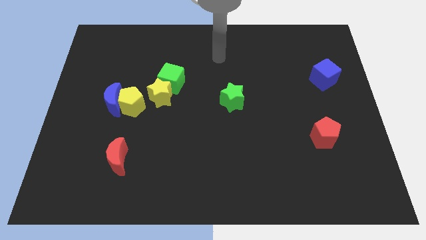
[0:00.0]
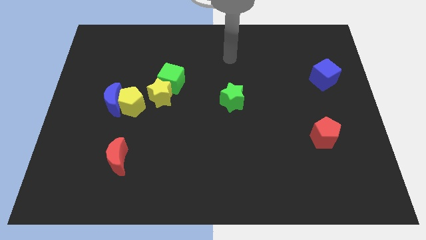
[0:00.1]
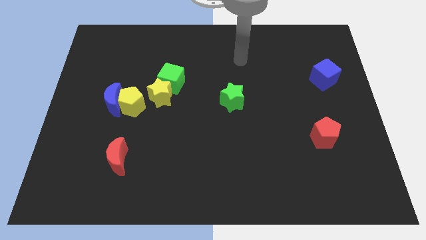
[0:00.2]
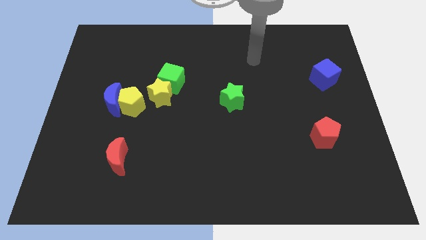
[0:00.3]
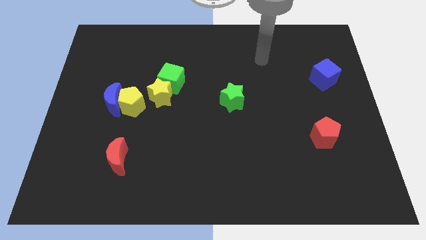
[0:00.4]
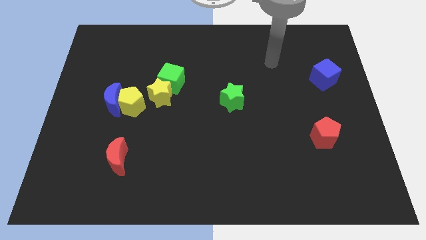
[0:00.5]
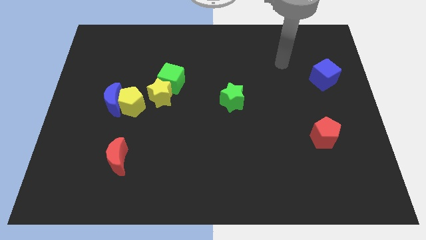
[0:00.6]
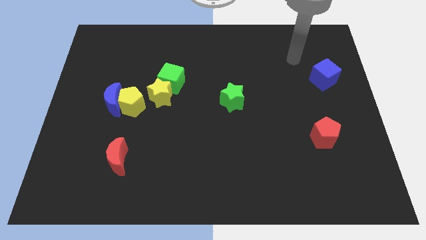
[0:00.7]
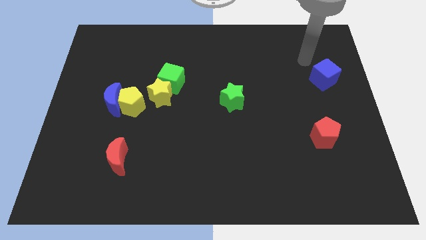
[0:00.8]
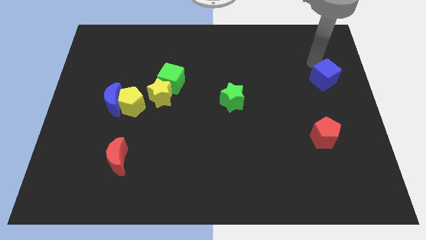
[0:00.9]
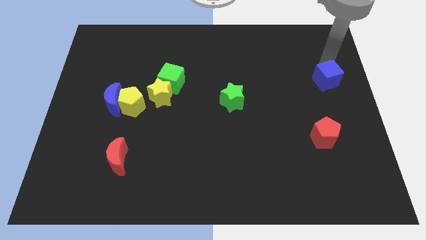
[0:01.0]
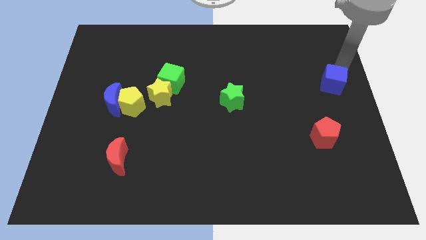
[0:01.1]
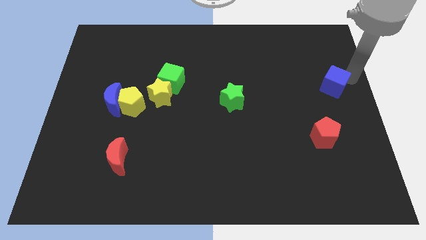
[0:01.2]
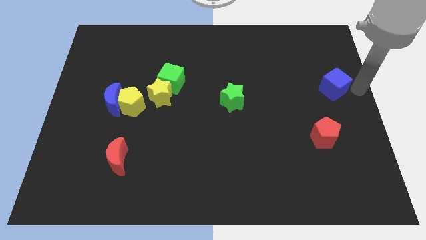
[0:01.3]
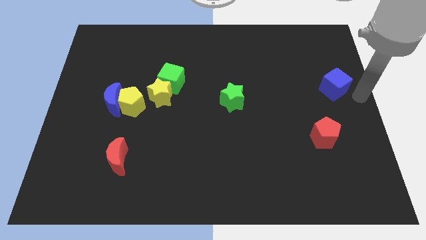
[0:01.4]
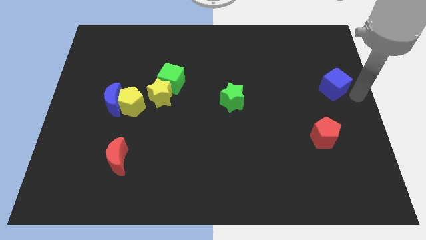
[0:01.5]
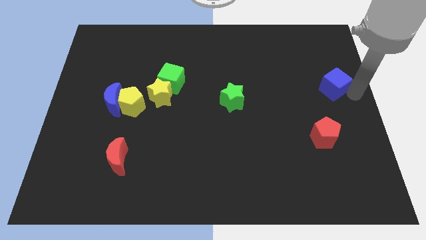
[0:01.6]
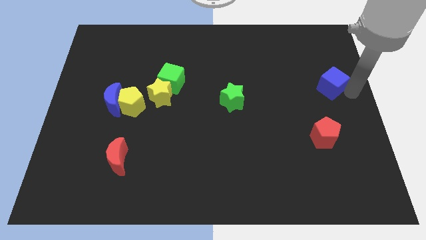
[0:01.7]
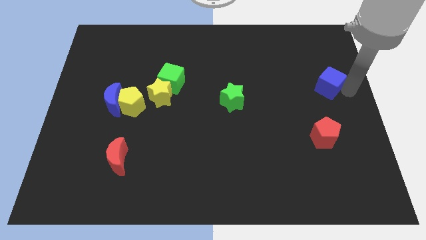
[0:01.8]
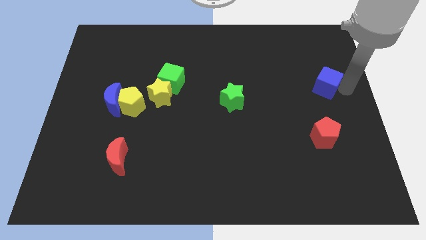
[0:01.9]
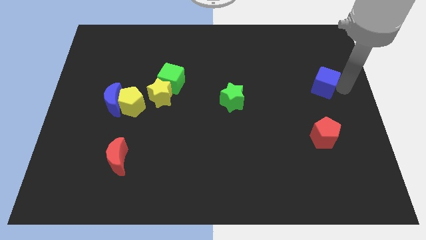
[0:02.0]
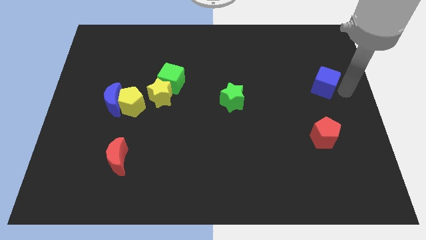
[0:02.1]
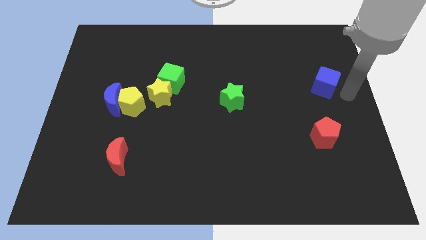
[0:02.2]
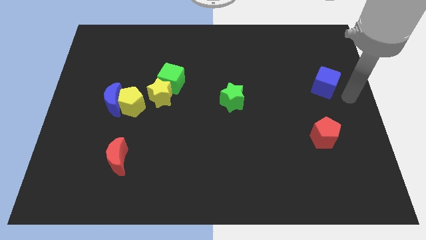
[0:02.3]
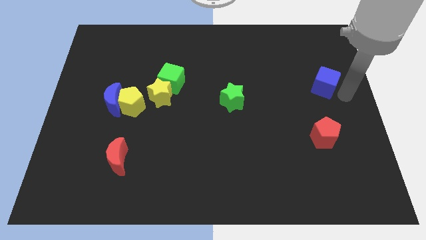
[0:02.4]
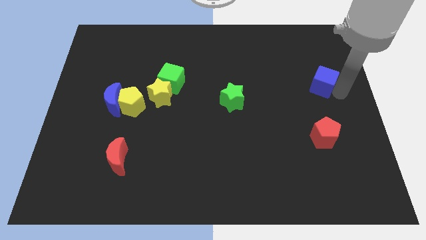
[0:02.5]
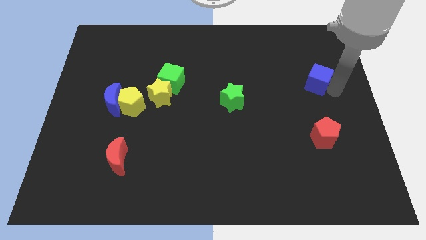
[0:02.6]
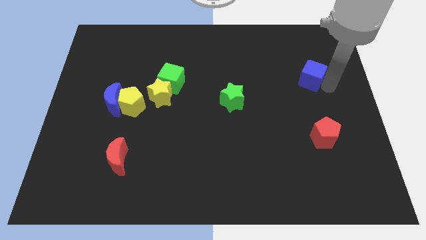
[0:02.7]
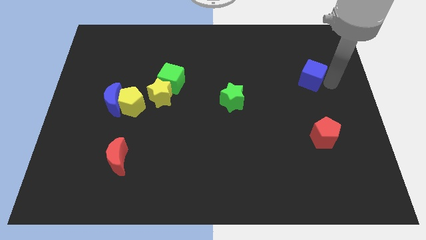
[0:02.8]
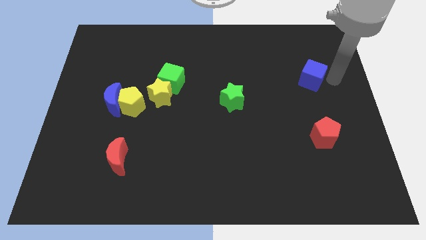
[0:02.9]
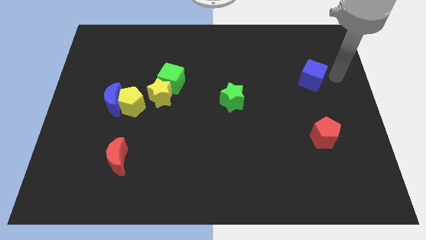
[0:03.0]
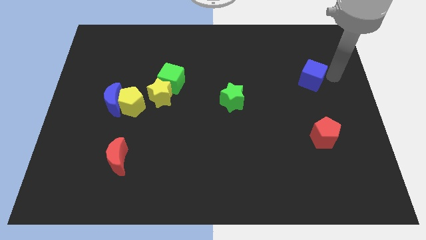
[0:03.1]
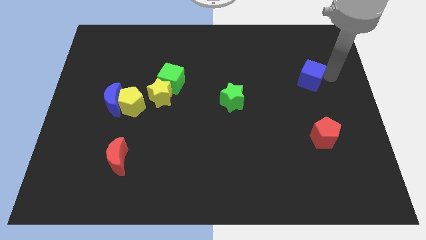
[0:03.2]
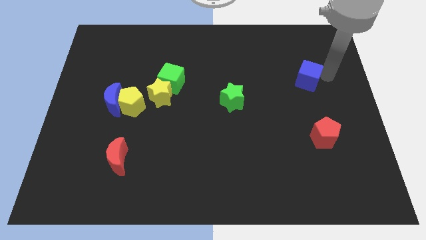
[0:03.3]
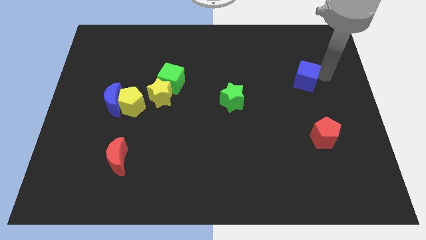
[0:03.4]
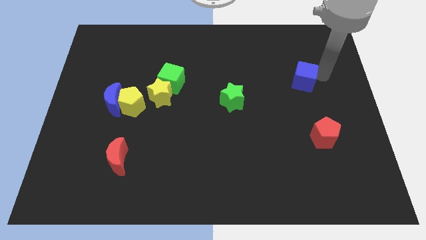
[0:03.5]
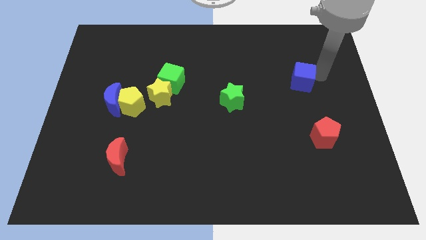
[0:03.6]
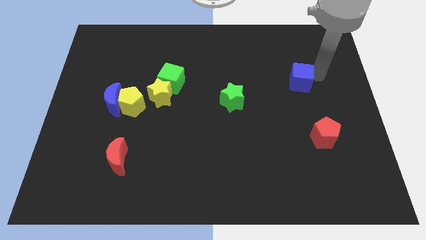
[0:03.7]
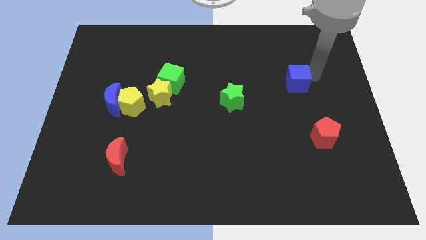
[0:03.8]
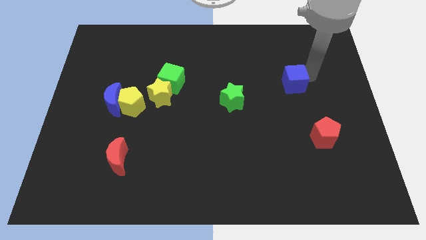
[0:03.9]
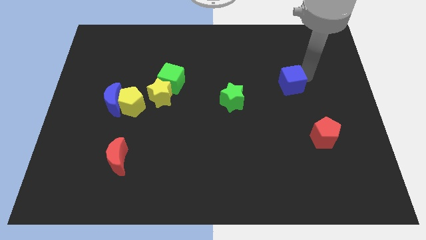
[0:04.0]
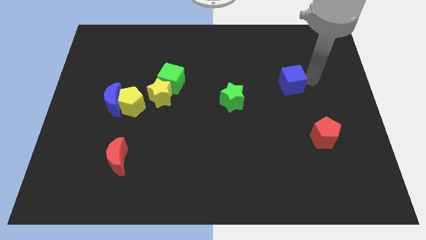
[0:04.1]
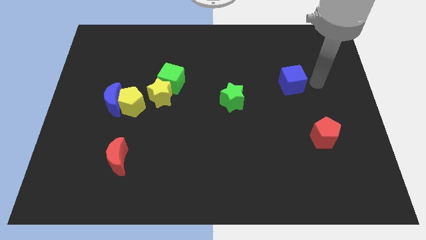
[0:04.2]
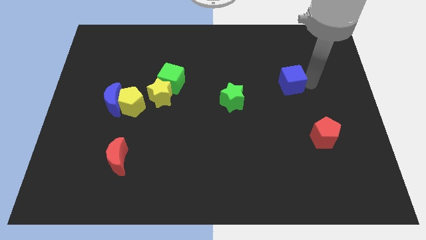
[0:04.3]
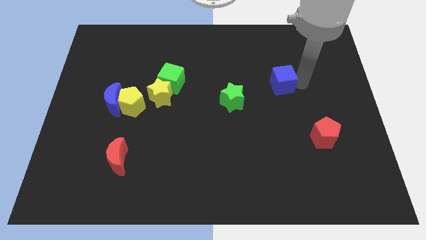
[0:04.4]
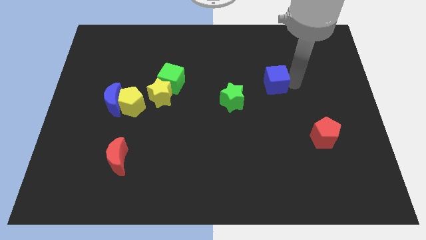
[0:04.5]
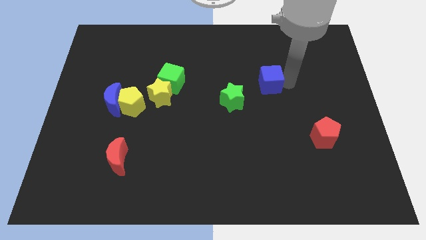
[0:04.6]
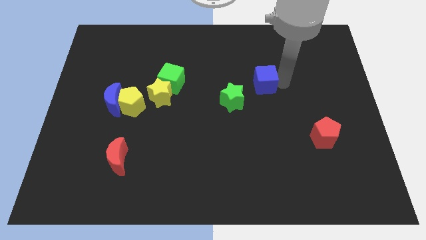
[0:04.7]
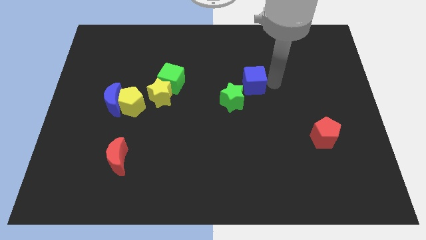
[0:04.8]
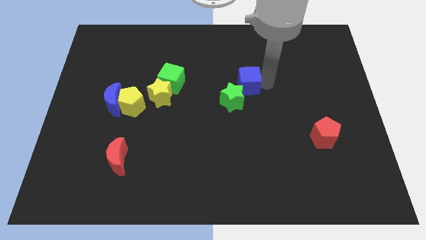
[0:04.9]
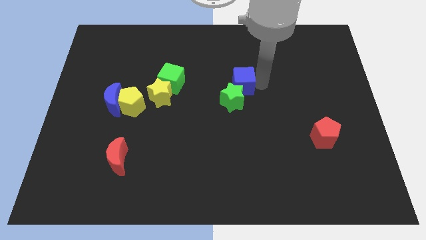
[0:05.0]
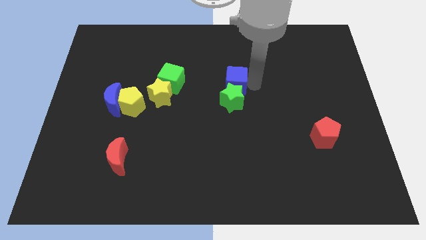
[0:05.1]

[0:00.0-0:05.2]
slide the blue cube right of the green cube

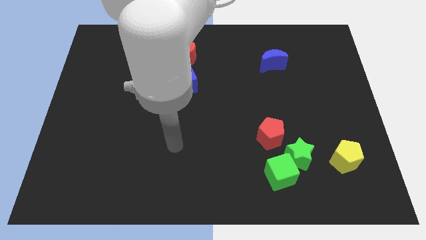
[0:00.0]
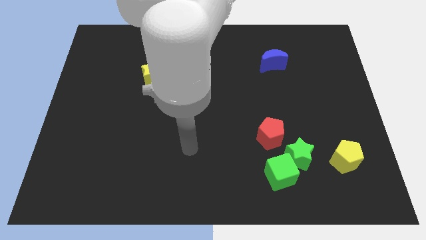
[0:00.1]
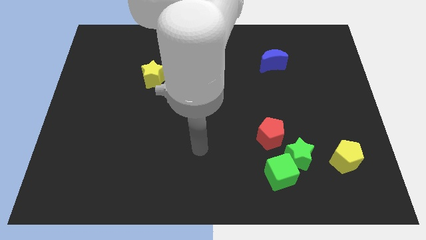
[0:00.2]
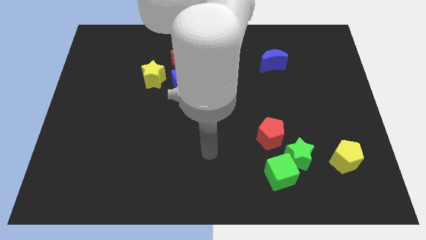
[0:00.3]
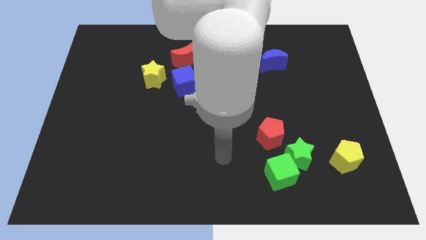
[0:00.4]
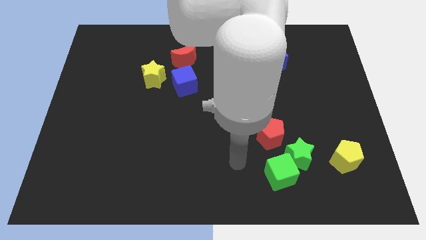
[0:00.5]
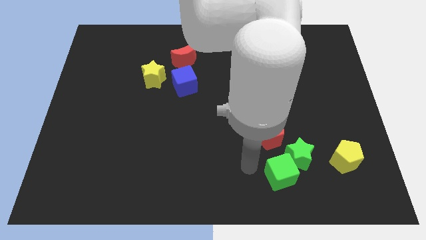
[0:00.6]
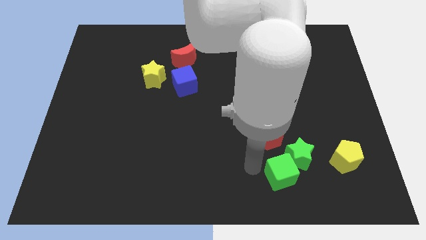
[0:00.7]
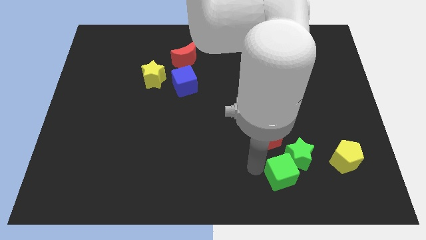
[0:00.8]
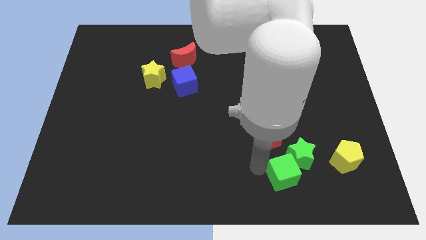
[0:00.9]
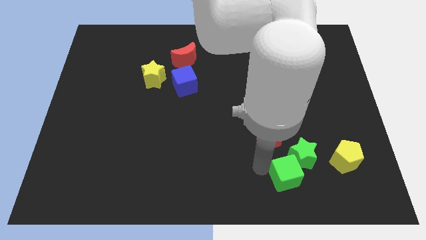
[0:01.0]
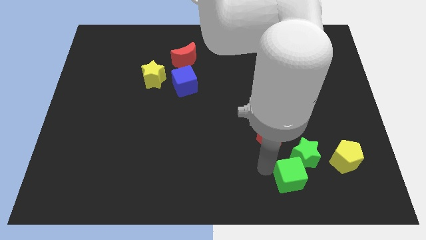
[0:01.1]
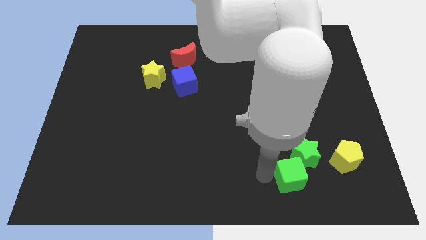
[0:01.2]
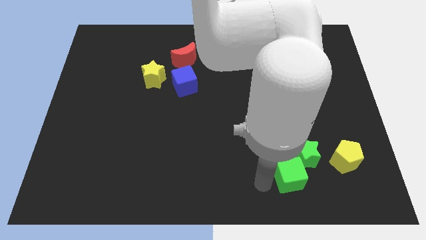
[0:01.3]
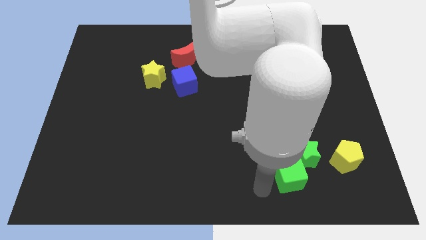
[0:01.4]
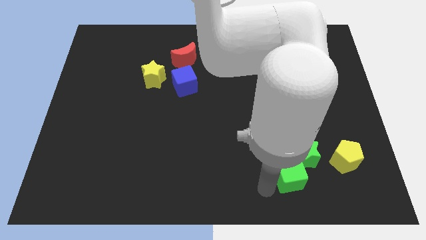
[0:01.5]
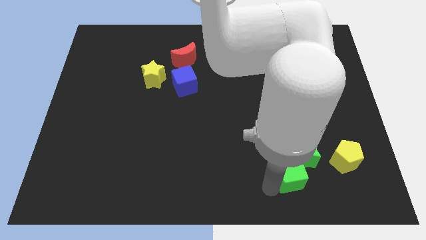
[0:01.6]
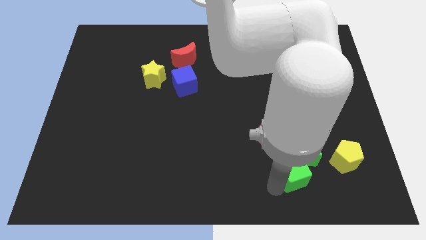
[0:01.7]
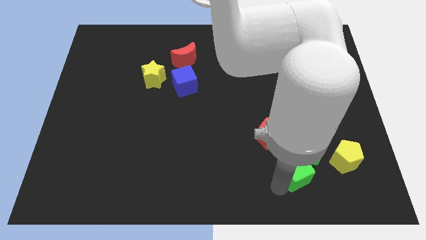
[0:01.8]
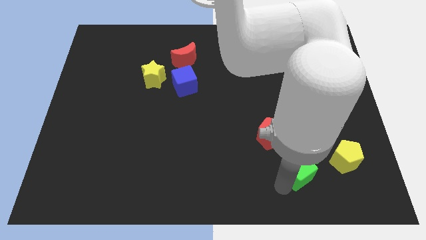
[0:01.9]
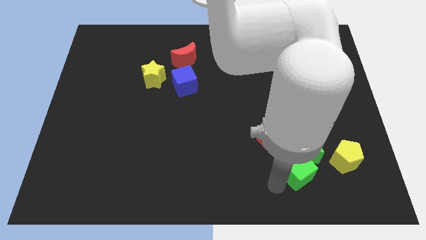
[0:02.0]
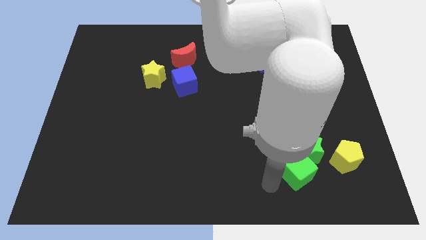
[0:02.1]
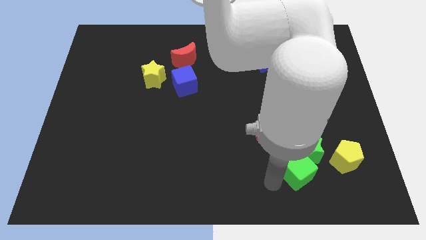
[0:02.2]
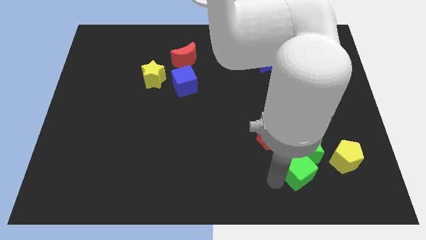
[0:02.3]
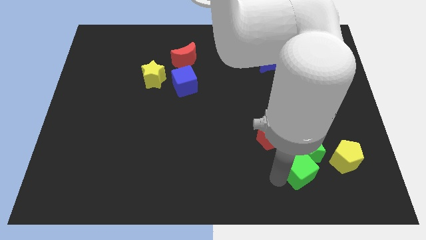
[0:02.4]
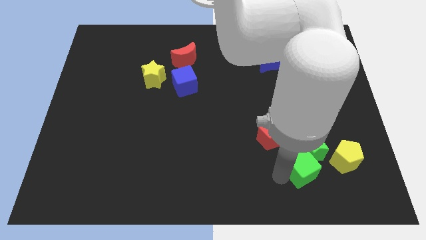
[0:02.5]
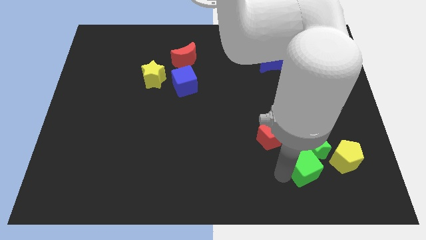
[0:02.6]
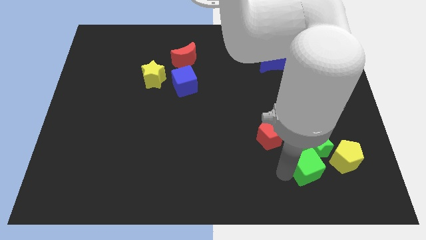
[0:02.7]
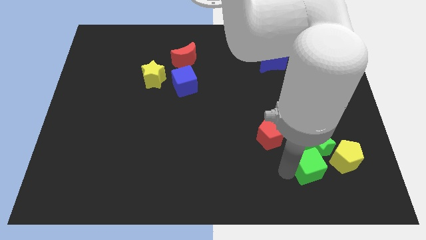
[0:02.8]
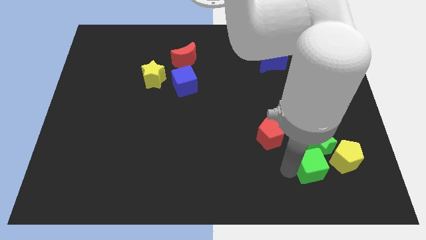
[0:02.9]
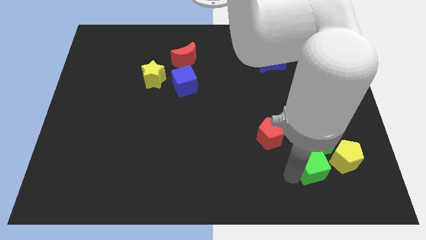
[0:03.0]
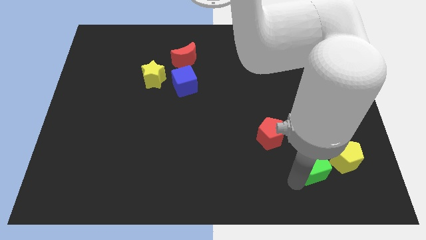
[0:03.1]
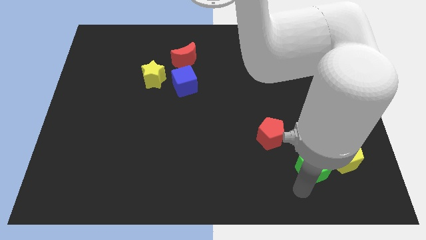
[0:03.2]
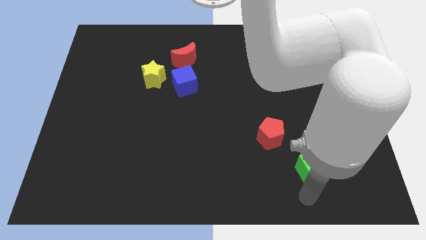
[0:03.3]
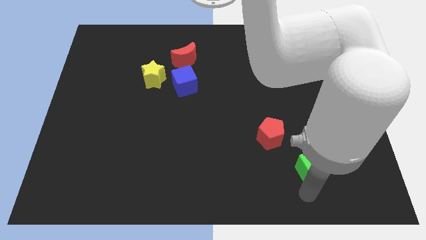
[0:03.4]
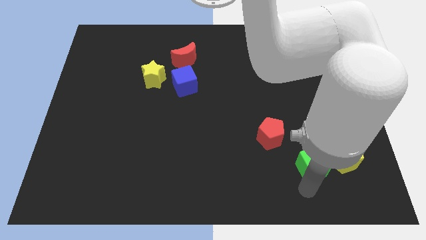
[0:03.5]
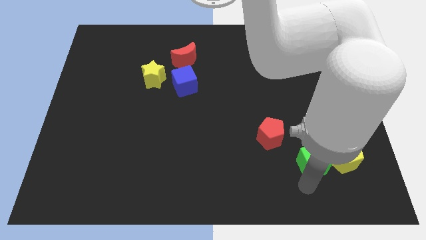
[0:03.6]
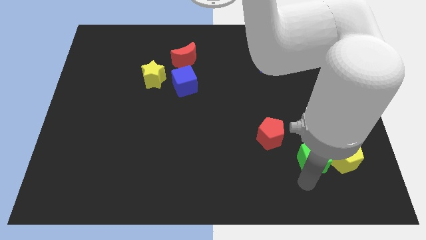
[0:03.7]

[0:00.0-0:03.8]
slide the green cube diagonally up and to the left of the yellow pentagon
